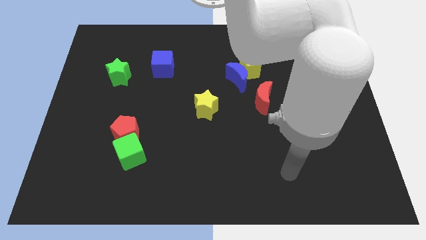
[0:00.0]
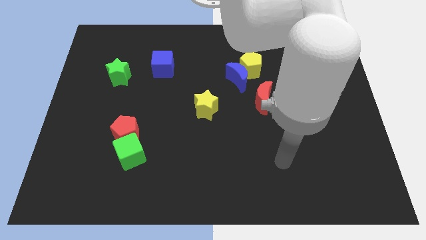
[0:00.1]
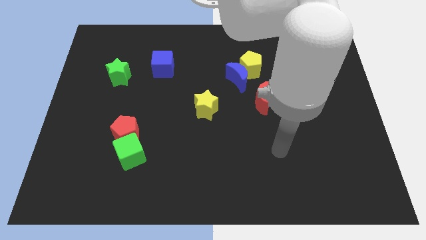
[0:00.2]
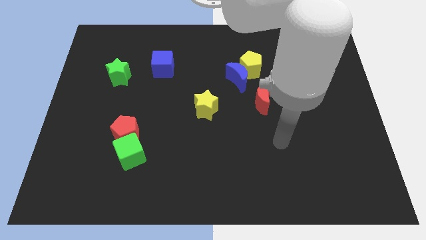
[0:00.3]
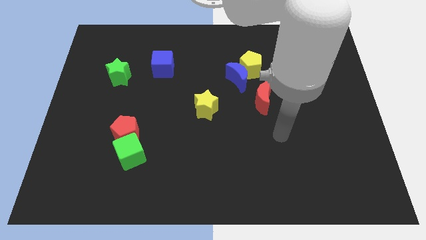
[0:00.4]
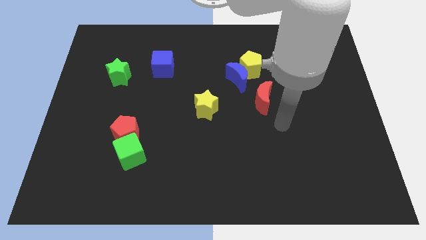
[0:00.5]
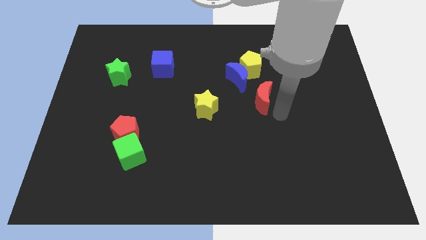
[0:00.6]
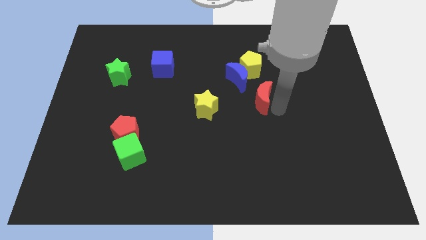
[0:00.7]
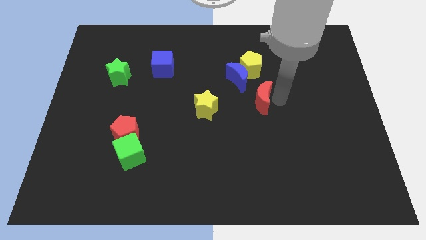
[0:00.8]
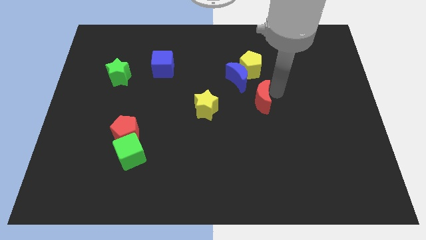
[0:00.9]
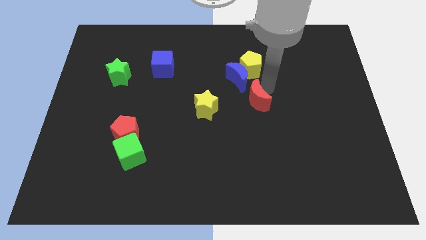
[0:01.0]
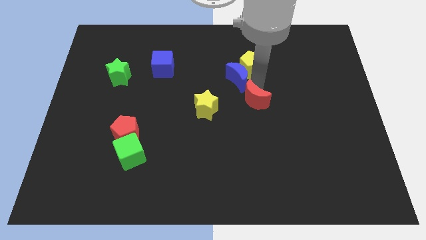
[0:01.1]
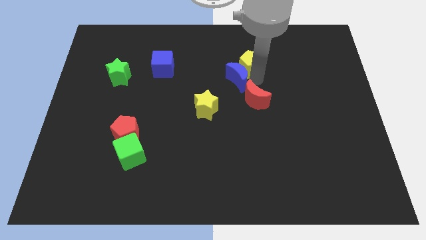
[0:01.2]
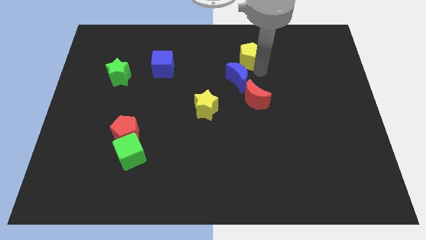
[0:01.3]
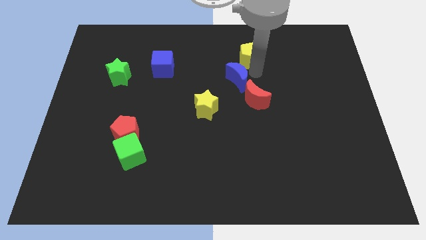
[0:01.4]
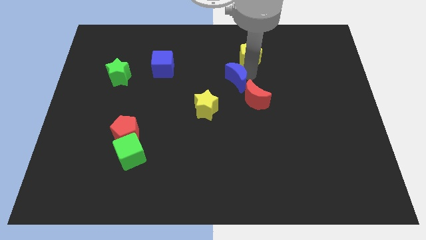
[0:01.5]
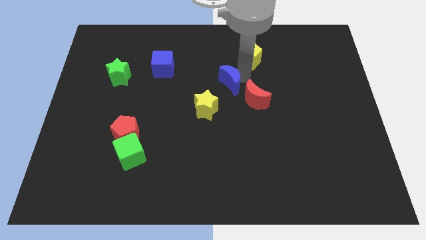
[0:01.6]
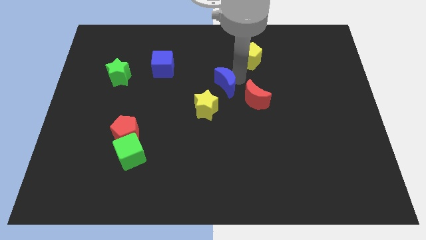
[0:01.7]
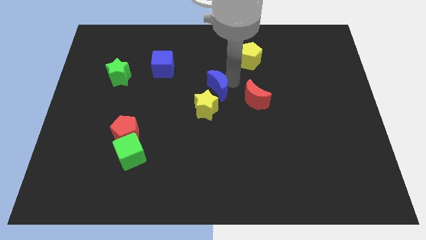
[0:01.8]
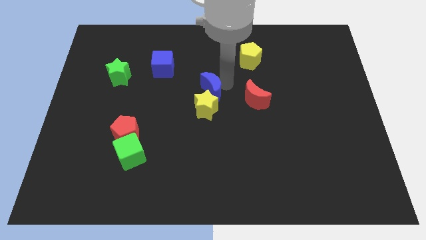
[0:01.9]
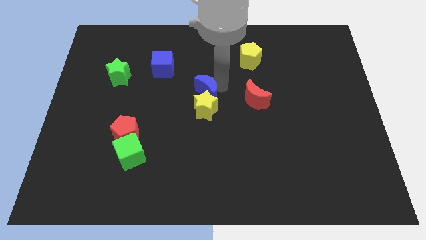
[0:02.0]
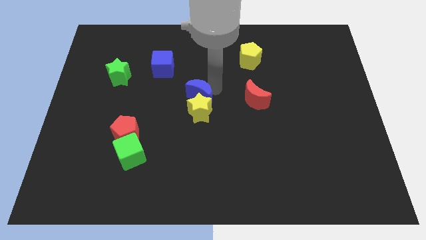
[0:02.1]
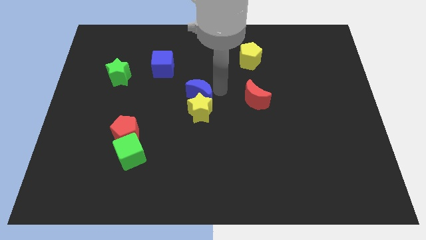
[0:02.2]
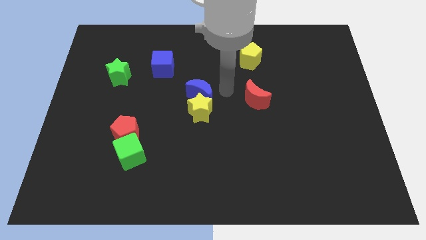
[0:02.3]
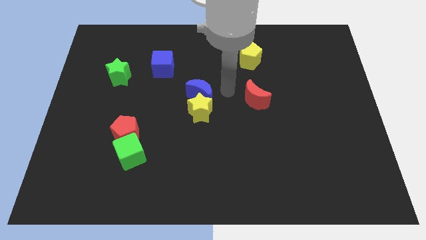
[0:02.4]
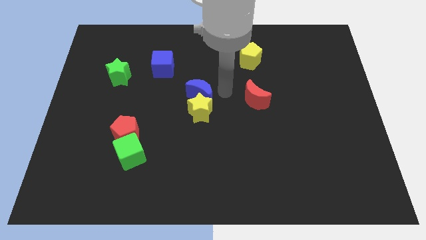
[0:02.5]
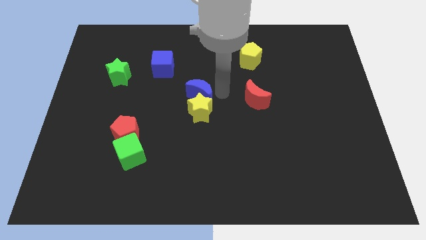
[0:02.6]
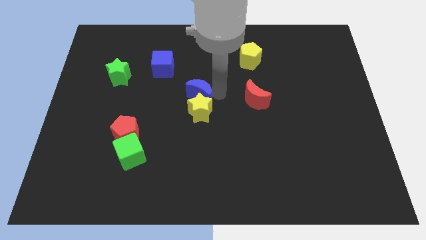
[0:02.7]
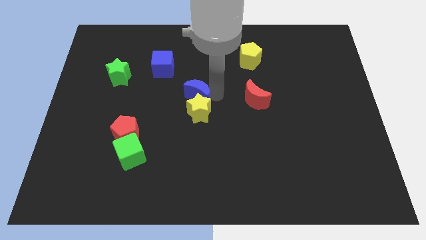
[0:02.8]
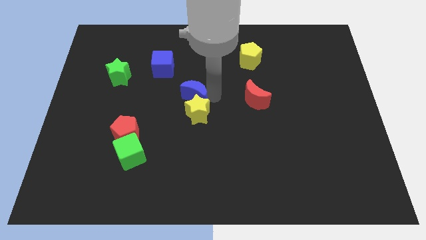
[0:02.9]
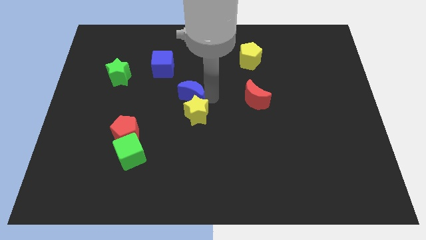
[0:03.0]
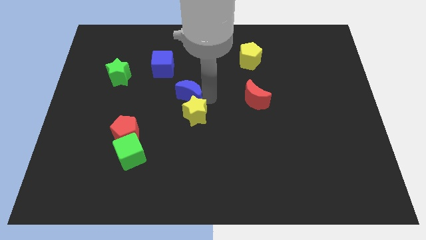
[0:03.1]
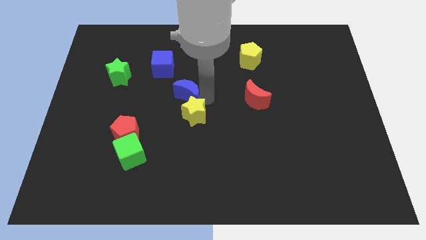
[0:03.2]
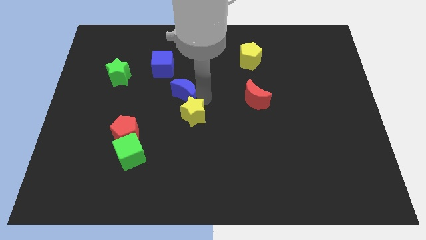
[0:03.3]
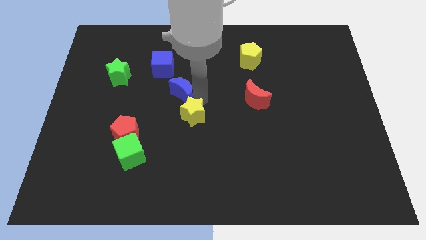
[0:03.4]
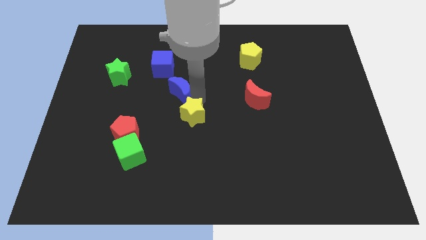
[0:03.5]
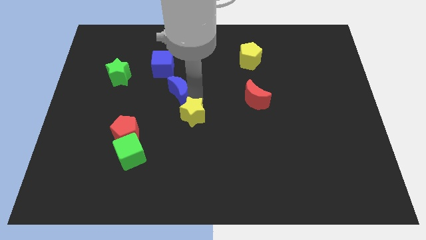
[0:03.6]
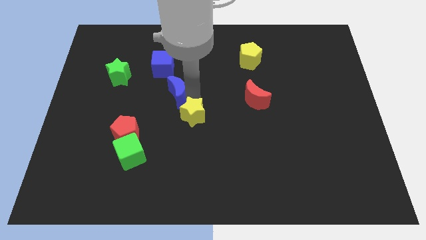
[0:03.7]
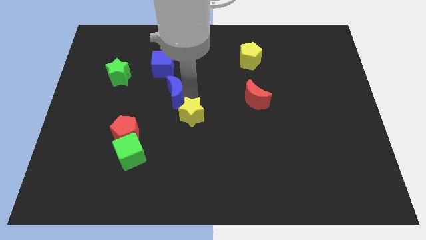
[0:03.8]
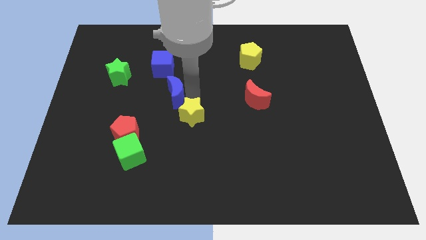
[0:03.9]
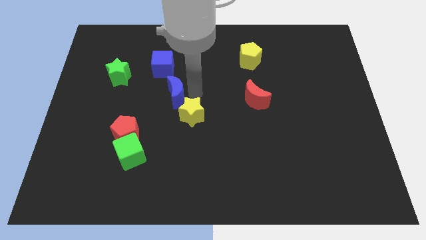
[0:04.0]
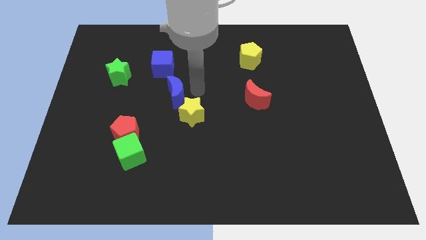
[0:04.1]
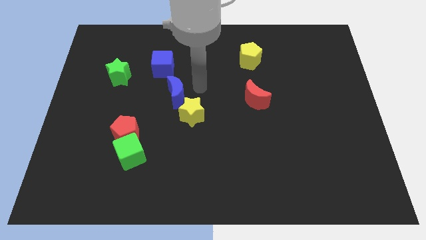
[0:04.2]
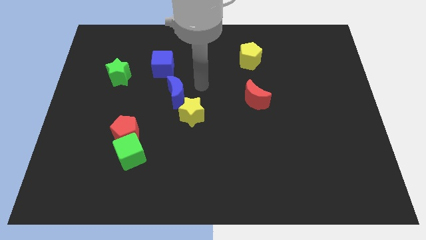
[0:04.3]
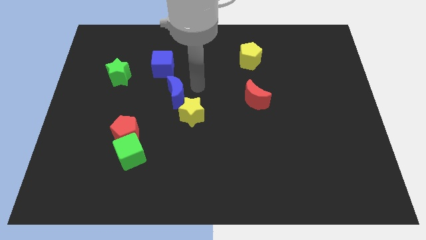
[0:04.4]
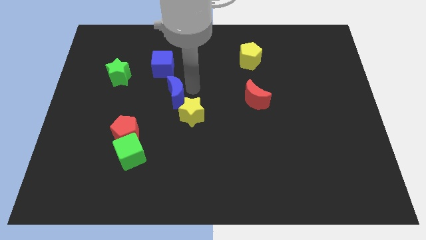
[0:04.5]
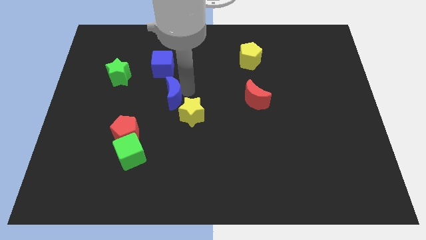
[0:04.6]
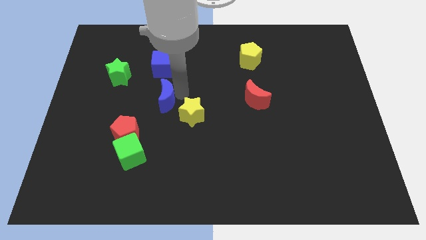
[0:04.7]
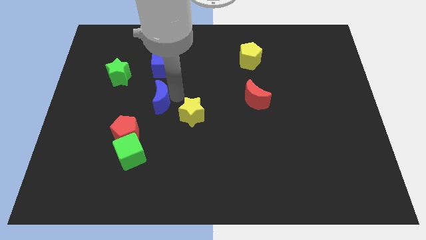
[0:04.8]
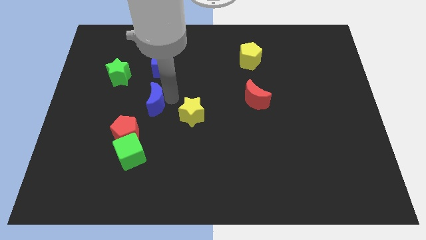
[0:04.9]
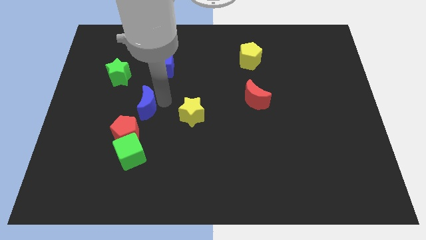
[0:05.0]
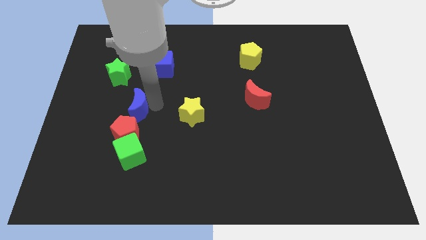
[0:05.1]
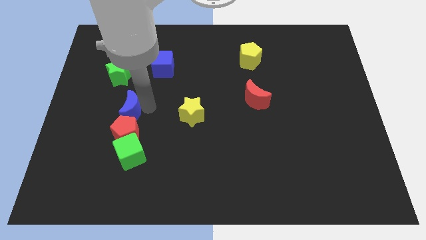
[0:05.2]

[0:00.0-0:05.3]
move the blue moon to the bottom of the green star

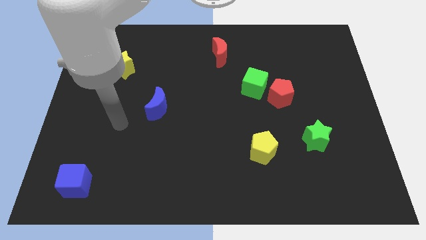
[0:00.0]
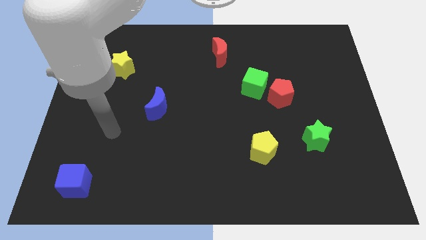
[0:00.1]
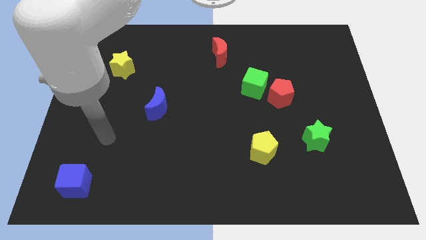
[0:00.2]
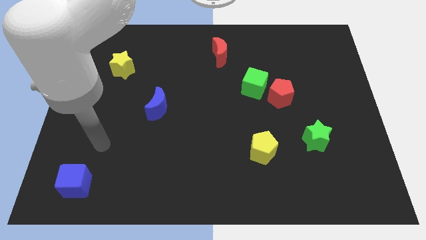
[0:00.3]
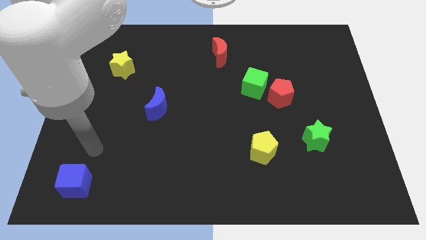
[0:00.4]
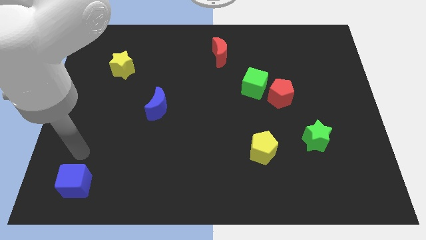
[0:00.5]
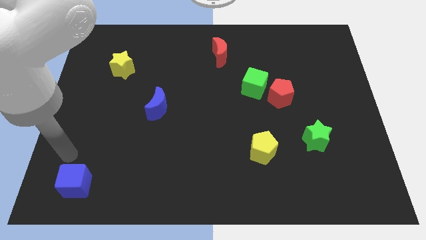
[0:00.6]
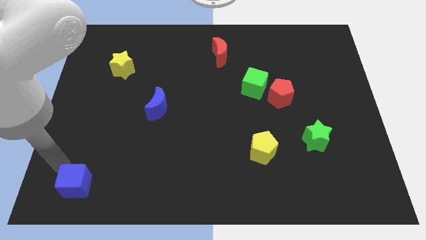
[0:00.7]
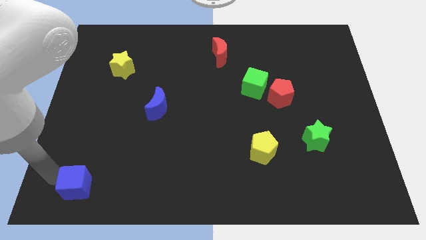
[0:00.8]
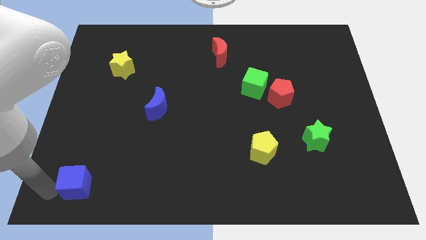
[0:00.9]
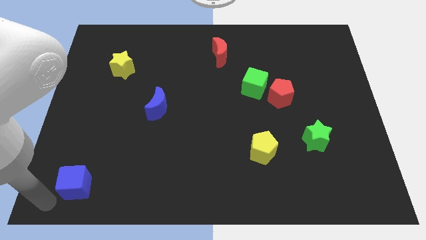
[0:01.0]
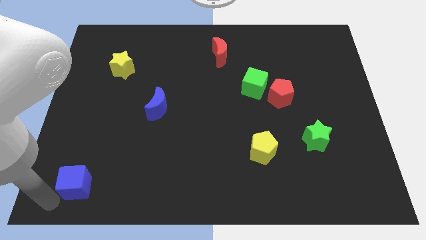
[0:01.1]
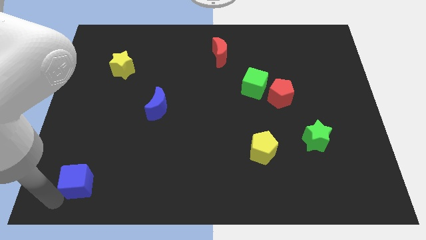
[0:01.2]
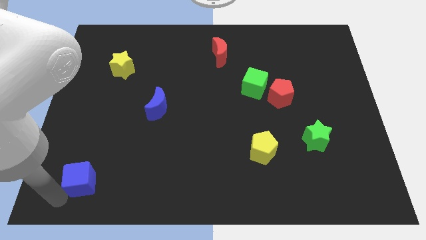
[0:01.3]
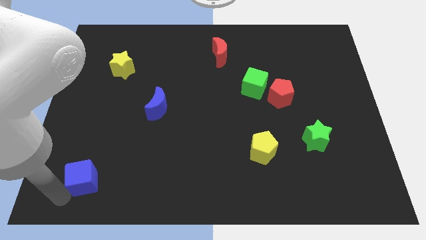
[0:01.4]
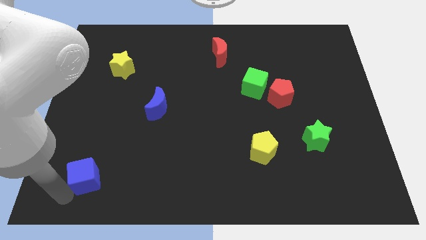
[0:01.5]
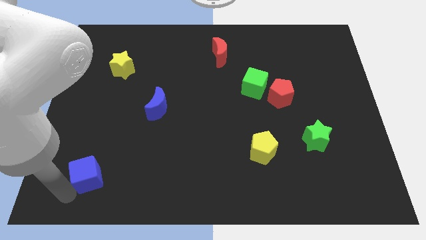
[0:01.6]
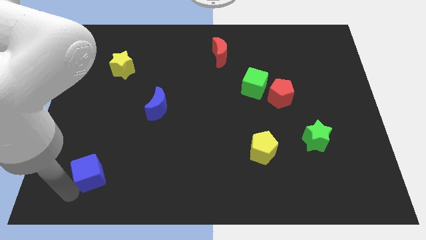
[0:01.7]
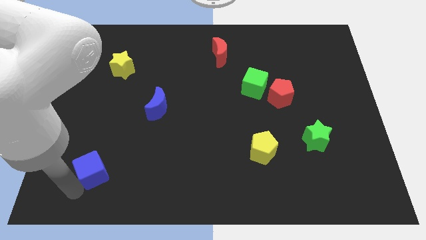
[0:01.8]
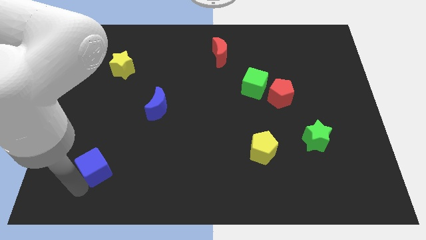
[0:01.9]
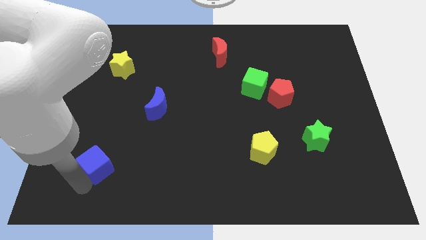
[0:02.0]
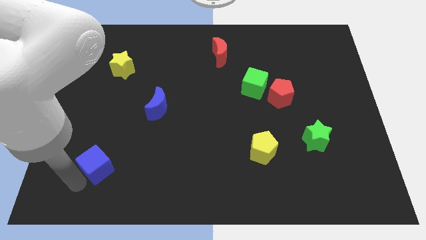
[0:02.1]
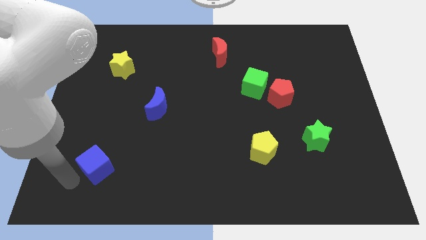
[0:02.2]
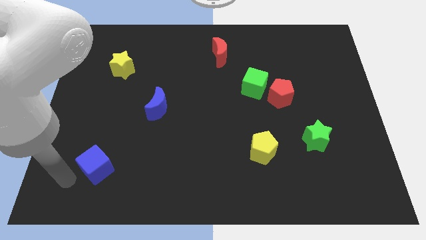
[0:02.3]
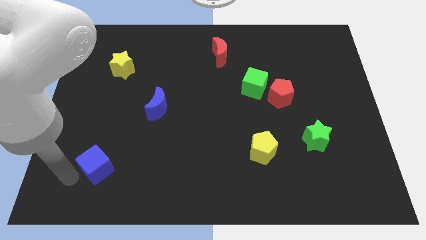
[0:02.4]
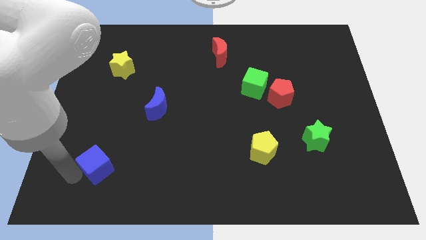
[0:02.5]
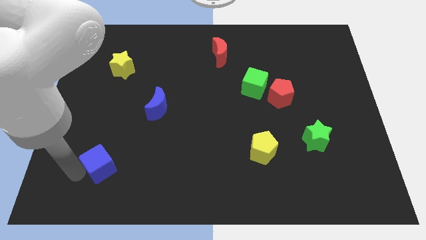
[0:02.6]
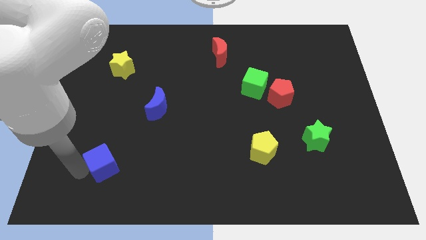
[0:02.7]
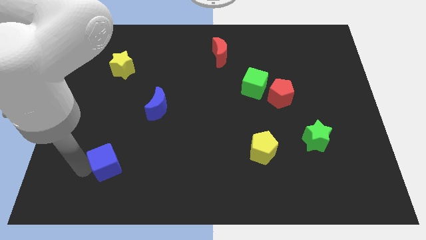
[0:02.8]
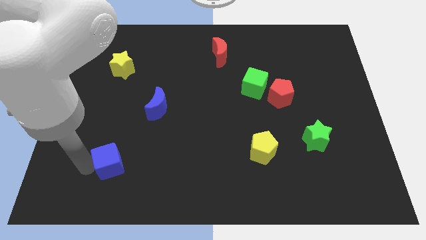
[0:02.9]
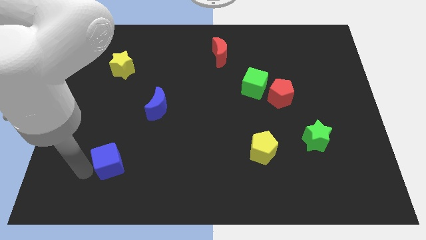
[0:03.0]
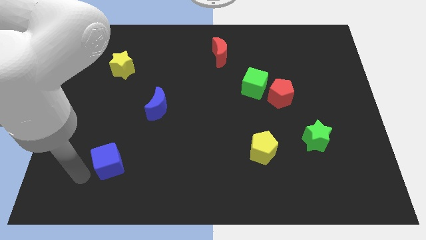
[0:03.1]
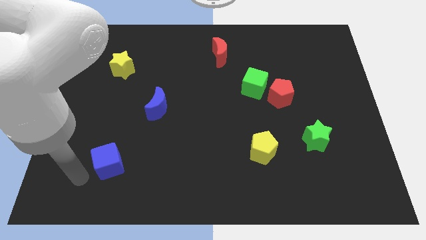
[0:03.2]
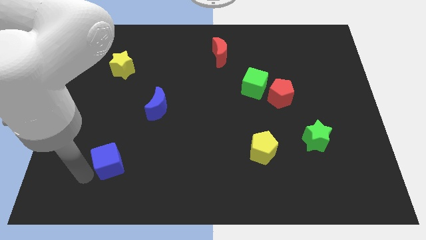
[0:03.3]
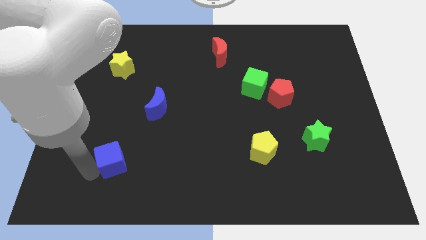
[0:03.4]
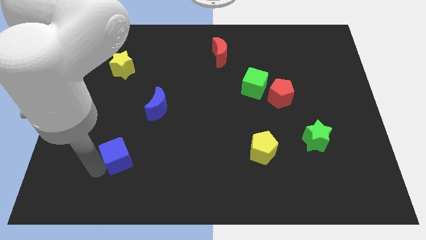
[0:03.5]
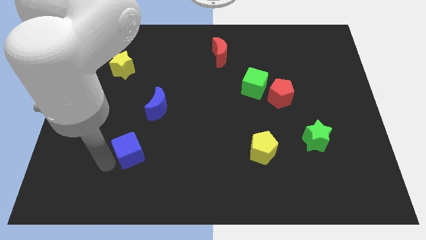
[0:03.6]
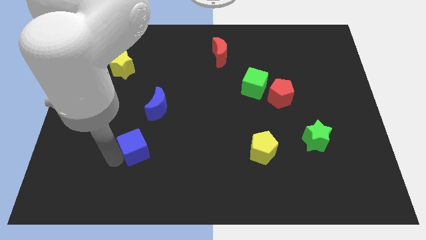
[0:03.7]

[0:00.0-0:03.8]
push the blue cube to the bottom side of the blue moon
